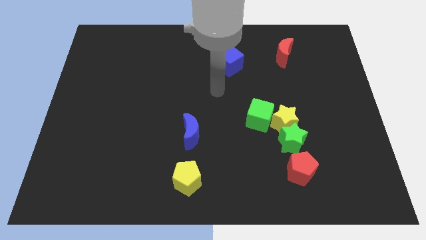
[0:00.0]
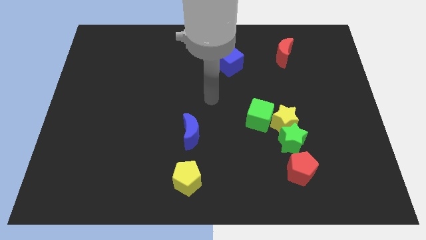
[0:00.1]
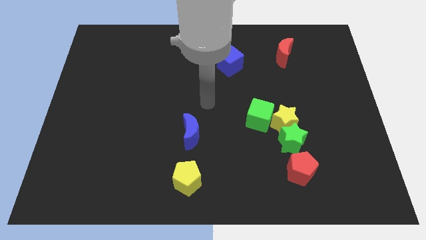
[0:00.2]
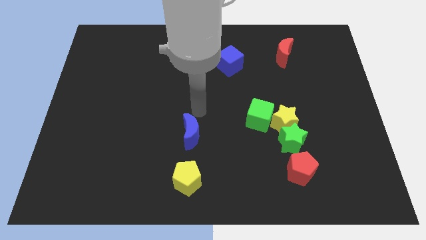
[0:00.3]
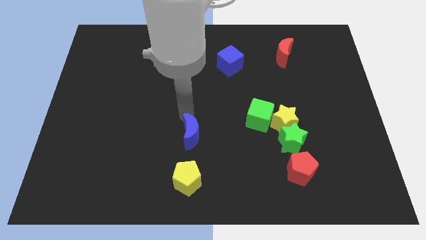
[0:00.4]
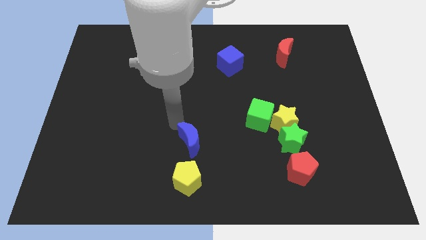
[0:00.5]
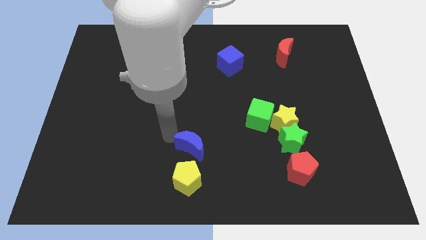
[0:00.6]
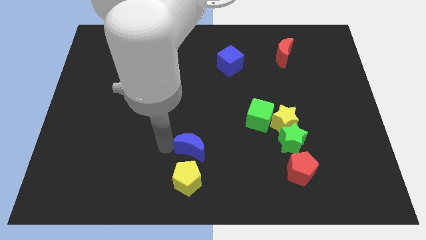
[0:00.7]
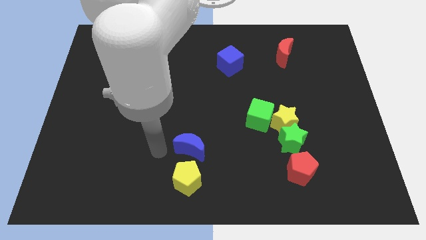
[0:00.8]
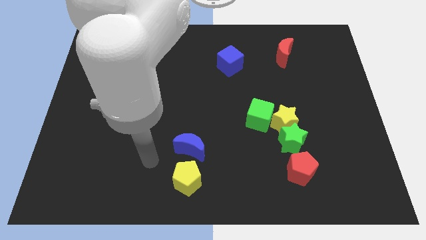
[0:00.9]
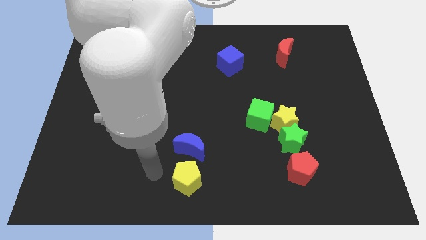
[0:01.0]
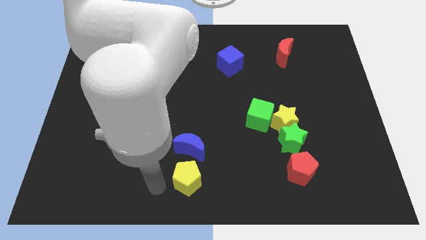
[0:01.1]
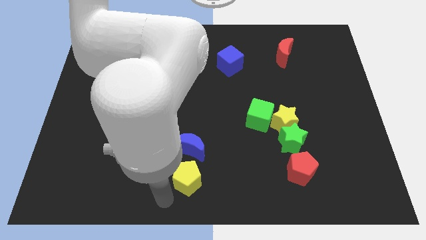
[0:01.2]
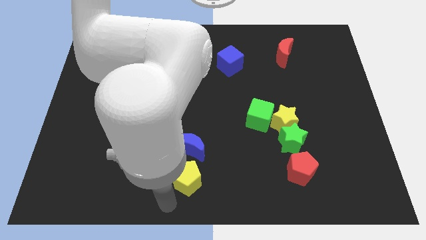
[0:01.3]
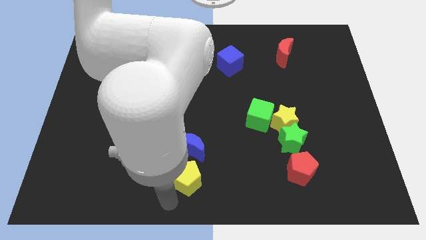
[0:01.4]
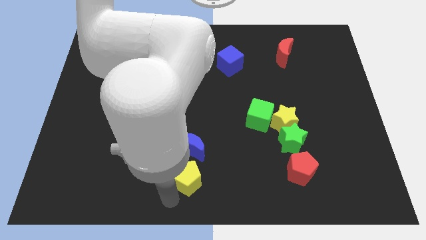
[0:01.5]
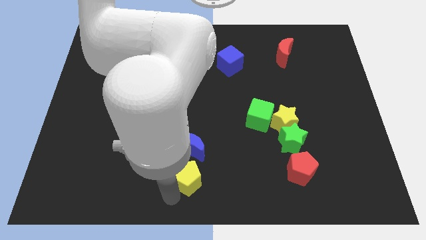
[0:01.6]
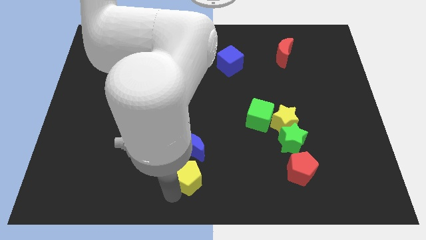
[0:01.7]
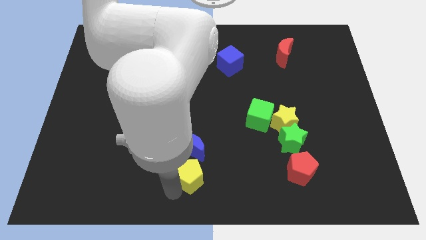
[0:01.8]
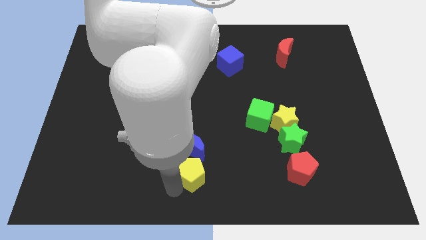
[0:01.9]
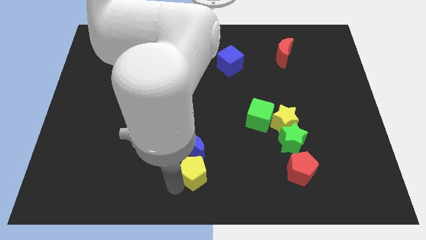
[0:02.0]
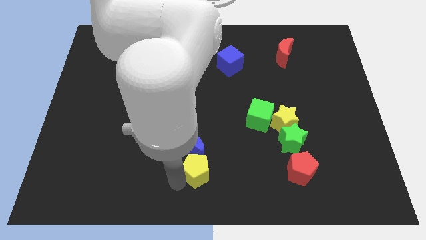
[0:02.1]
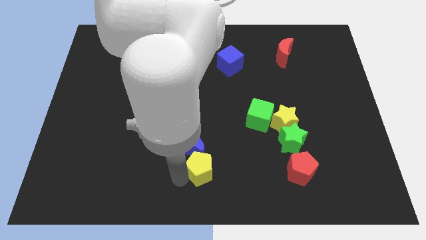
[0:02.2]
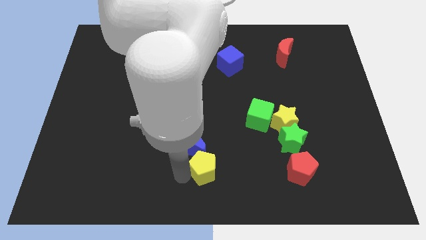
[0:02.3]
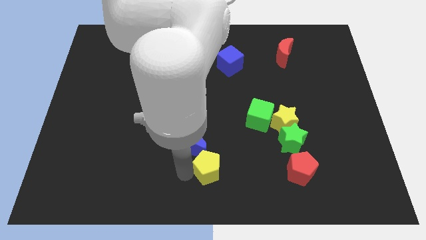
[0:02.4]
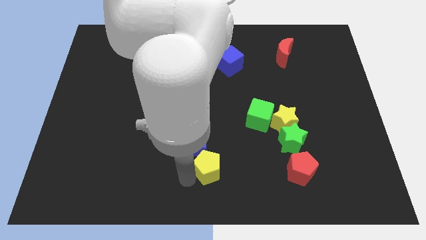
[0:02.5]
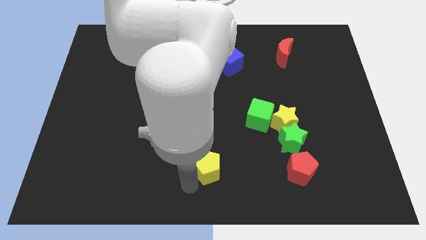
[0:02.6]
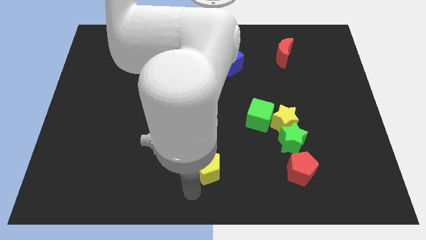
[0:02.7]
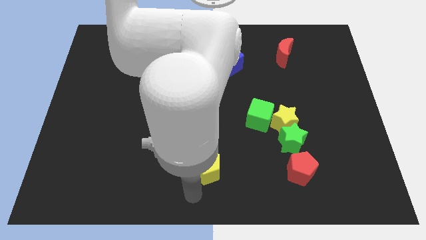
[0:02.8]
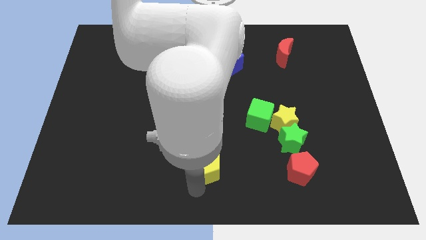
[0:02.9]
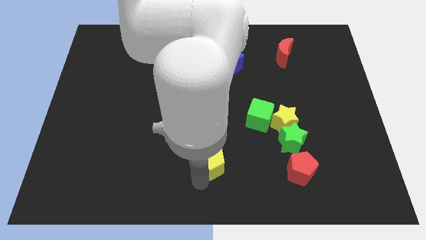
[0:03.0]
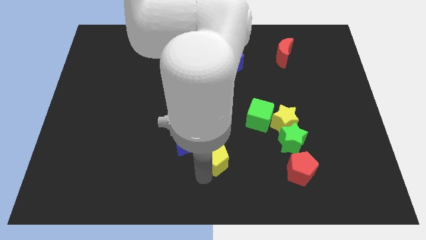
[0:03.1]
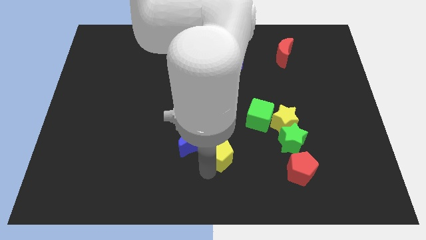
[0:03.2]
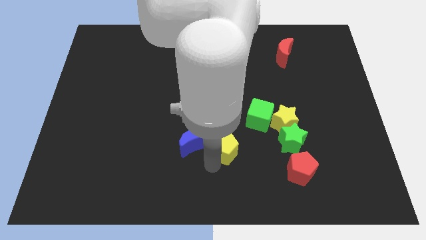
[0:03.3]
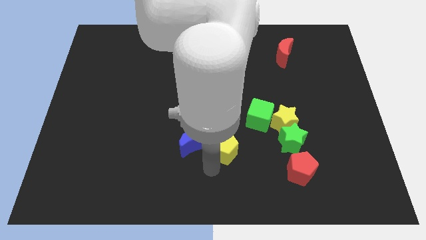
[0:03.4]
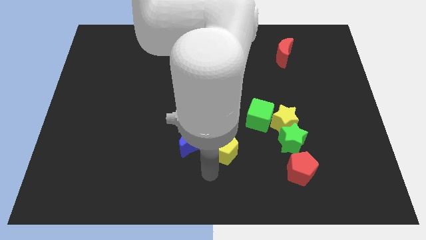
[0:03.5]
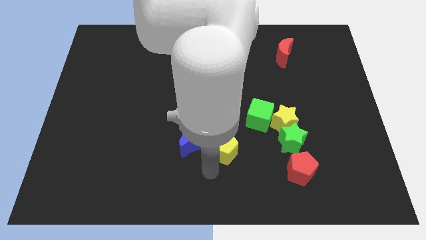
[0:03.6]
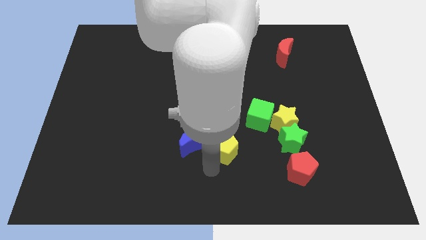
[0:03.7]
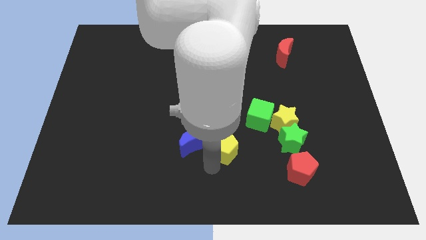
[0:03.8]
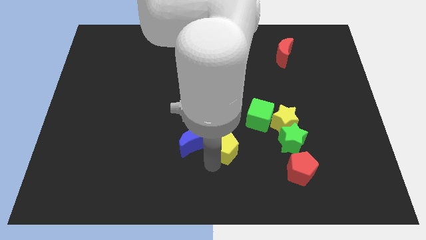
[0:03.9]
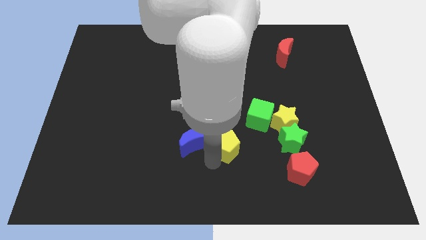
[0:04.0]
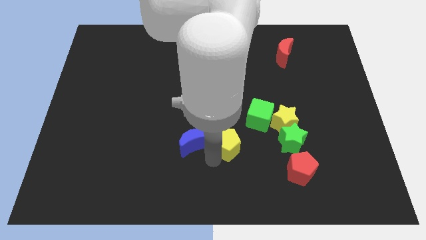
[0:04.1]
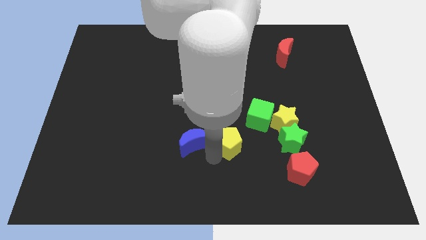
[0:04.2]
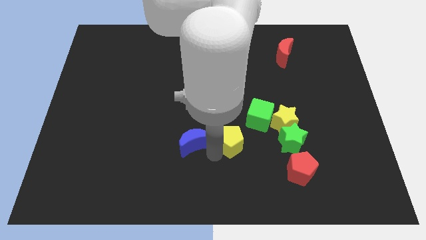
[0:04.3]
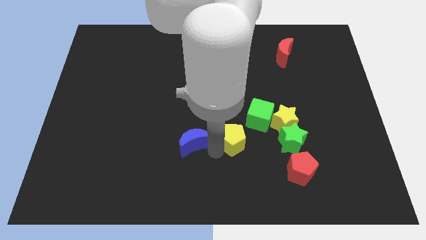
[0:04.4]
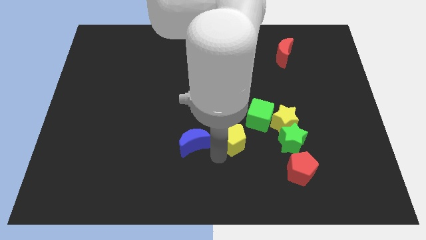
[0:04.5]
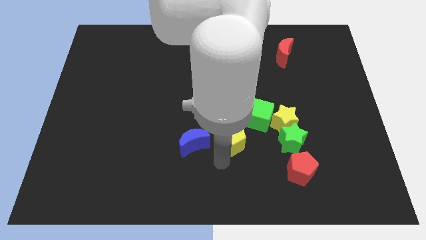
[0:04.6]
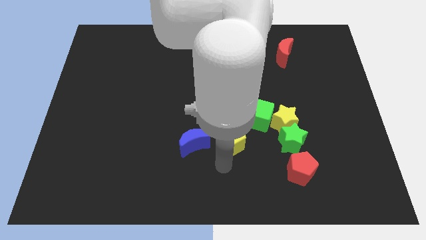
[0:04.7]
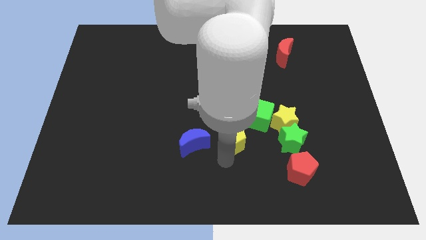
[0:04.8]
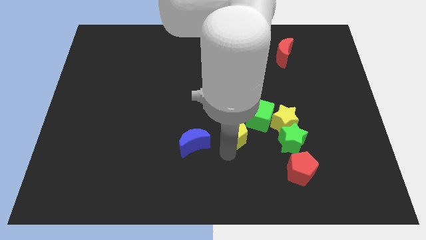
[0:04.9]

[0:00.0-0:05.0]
push the yellow pentagon to the left of the yellow star

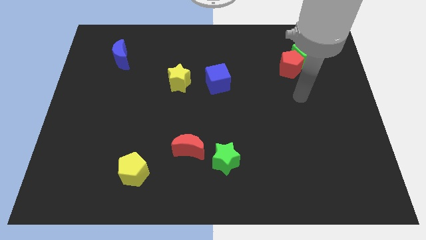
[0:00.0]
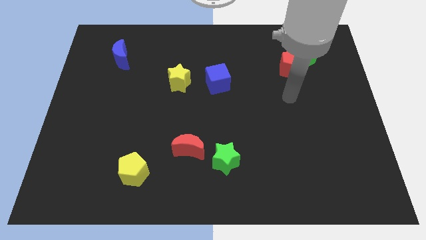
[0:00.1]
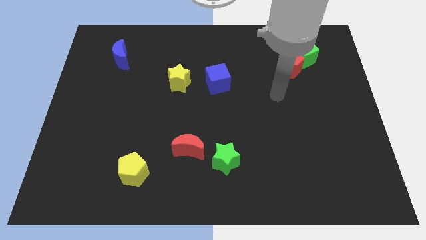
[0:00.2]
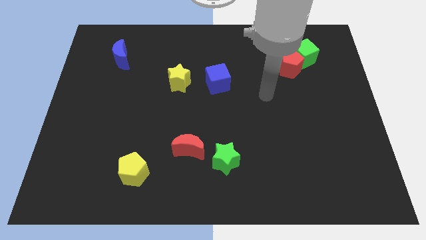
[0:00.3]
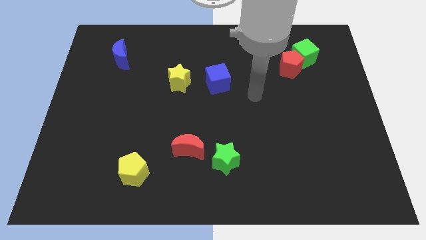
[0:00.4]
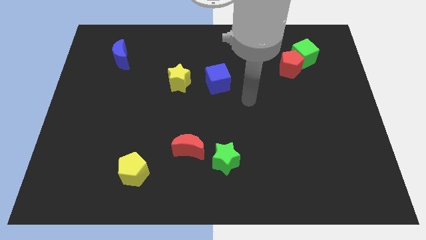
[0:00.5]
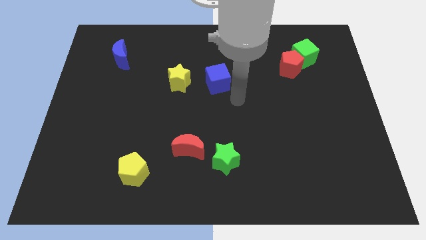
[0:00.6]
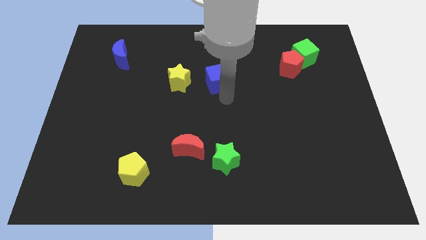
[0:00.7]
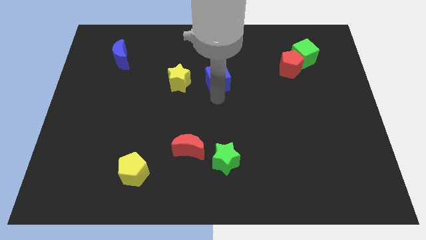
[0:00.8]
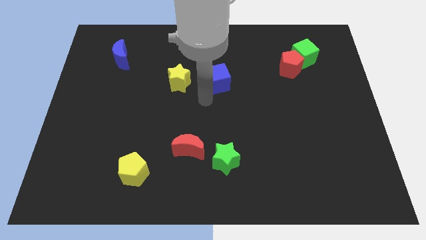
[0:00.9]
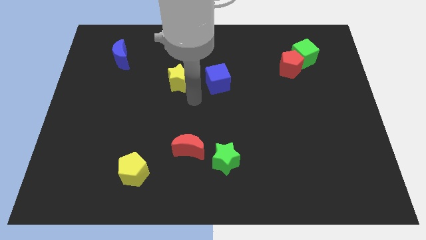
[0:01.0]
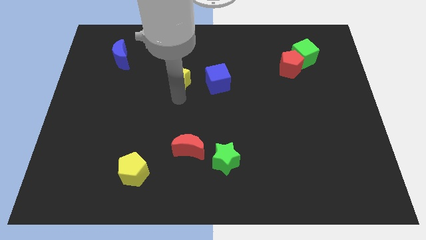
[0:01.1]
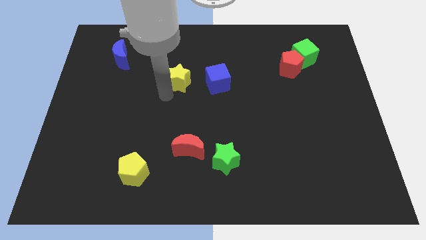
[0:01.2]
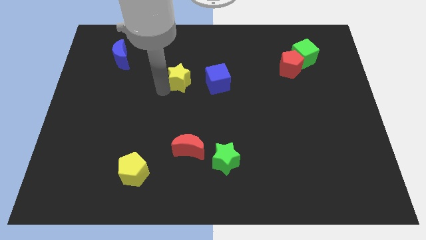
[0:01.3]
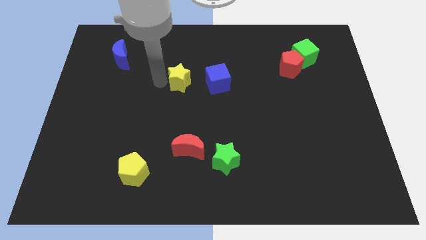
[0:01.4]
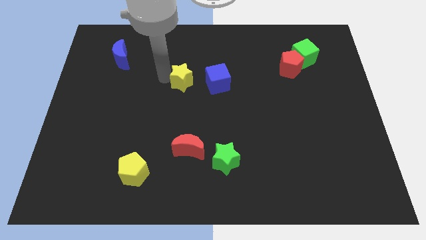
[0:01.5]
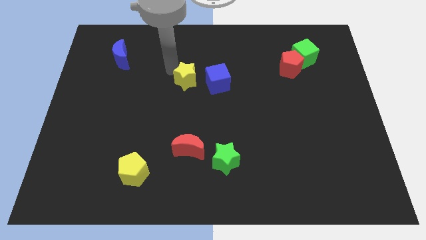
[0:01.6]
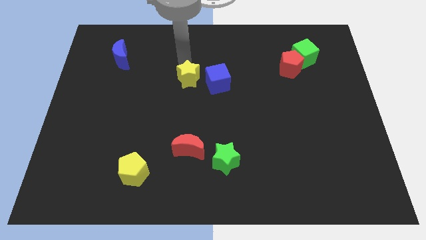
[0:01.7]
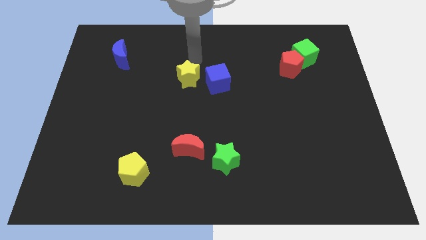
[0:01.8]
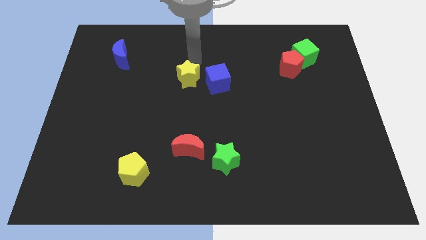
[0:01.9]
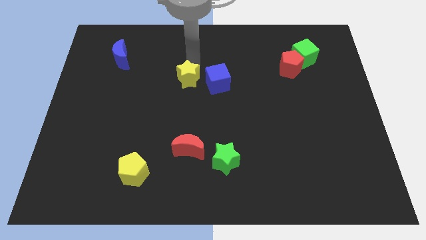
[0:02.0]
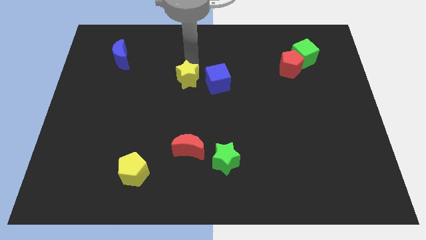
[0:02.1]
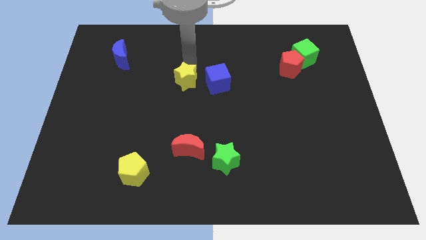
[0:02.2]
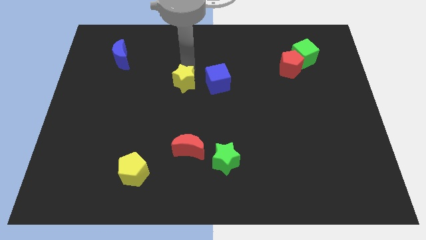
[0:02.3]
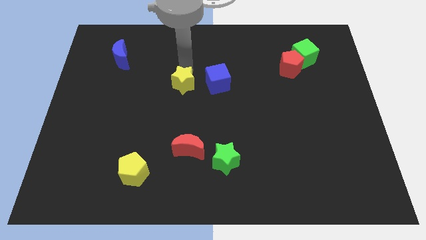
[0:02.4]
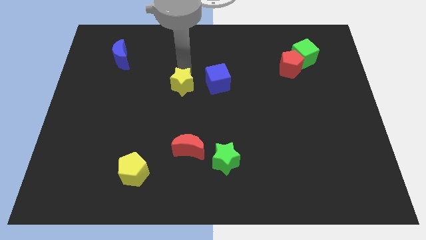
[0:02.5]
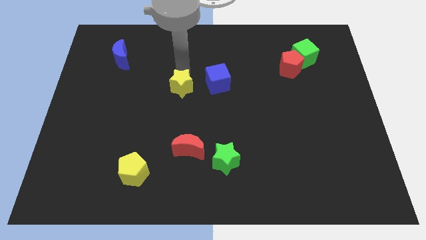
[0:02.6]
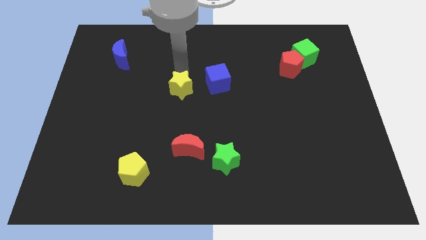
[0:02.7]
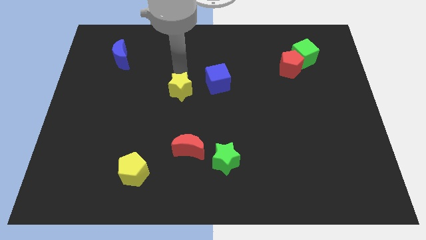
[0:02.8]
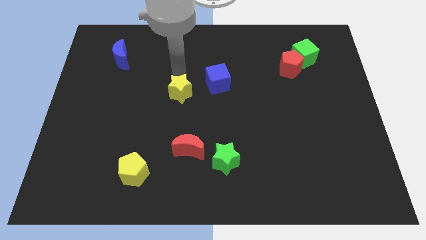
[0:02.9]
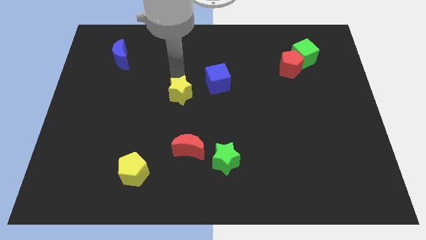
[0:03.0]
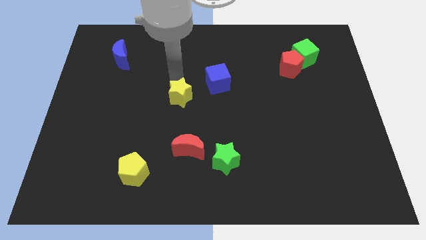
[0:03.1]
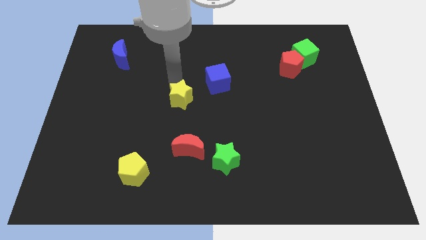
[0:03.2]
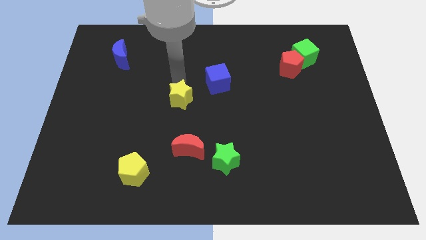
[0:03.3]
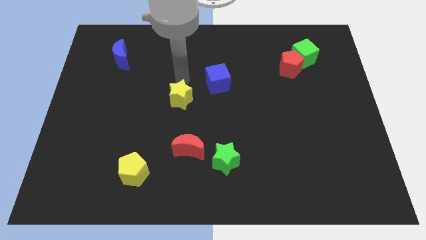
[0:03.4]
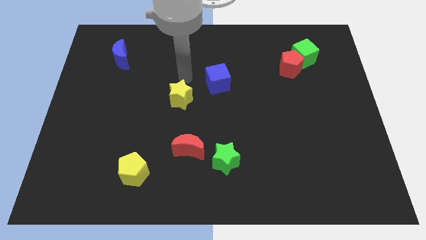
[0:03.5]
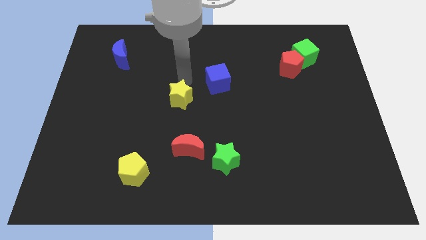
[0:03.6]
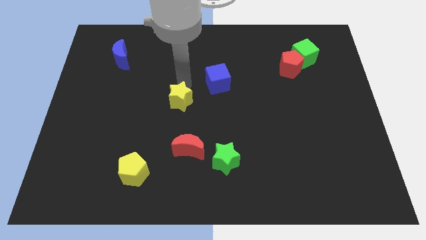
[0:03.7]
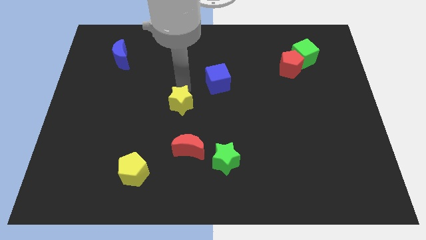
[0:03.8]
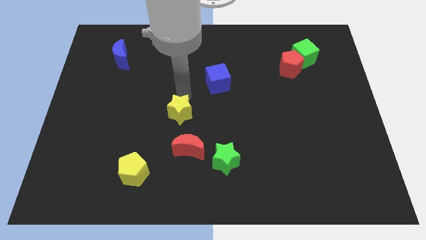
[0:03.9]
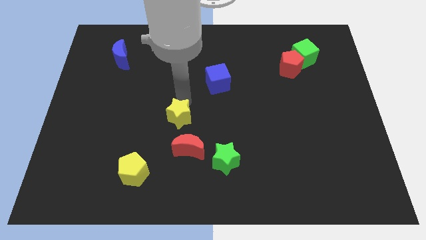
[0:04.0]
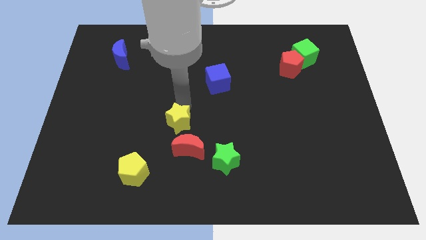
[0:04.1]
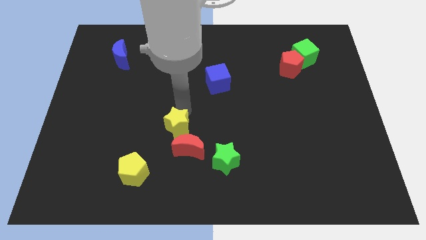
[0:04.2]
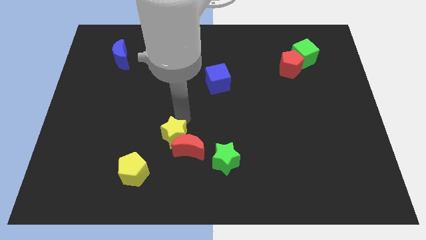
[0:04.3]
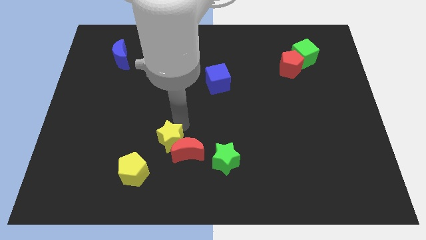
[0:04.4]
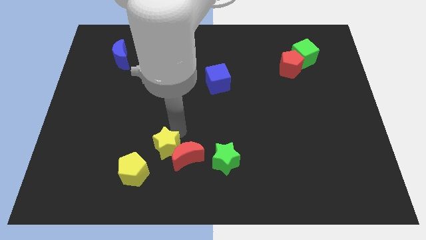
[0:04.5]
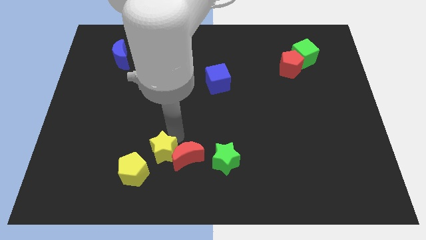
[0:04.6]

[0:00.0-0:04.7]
push the yellow star just right of the yellow pentagon
